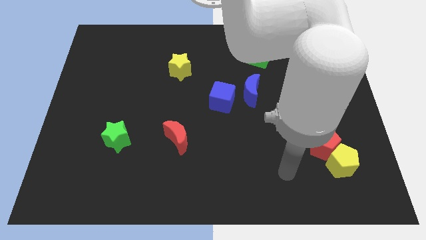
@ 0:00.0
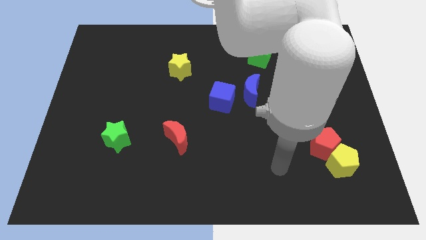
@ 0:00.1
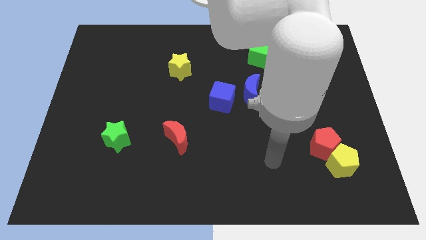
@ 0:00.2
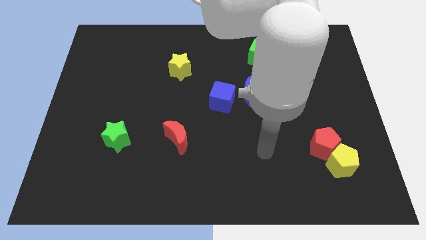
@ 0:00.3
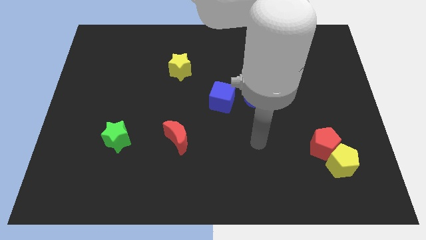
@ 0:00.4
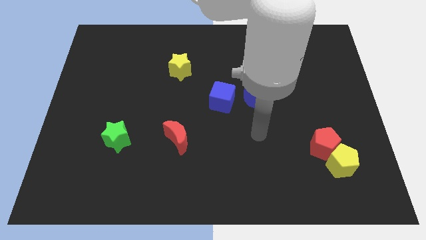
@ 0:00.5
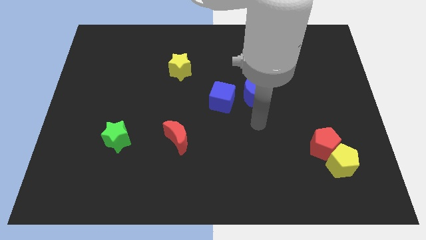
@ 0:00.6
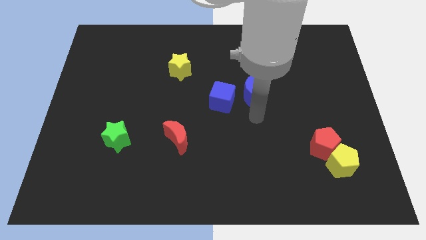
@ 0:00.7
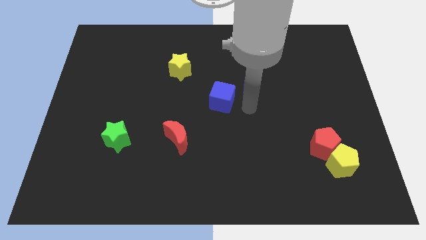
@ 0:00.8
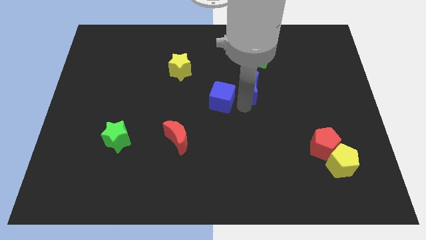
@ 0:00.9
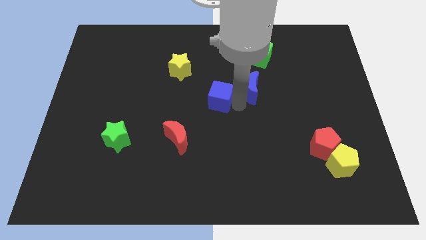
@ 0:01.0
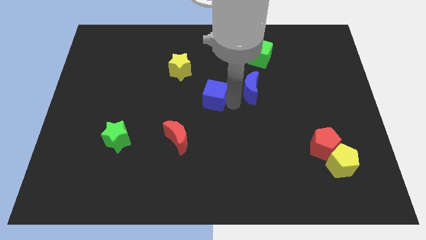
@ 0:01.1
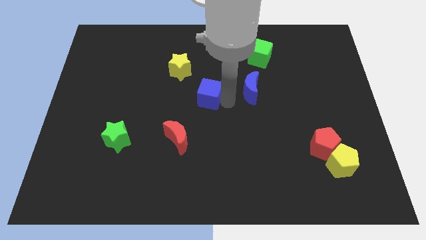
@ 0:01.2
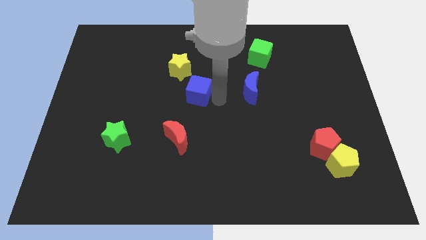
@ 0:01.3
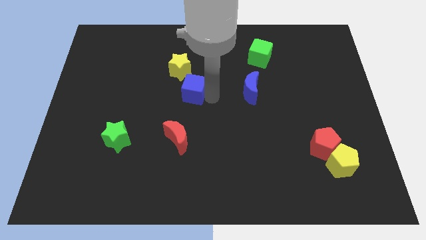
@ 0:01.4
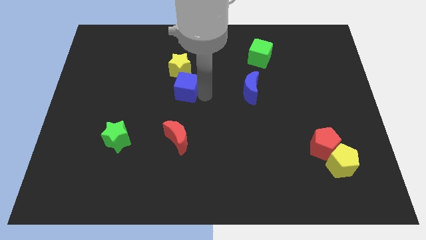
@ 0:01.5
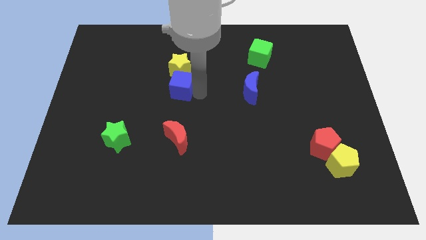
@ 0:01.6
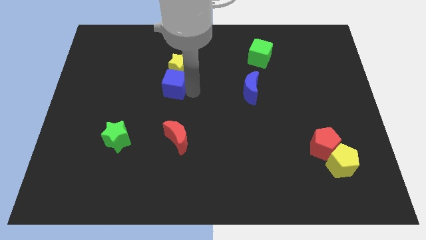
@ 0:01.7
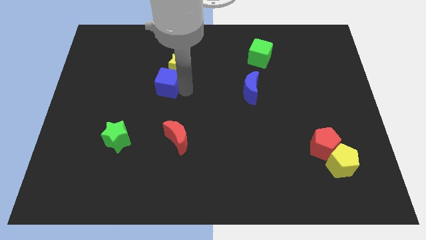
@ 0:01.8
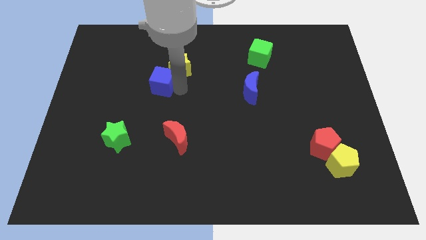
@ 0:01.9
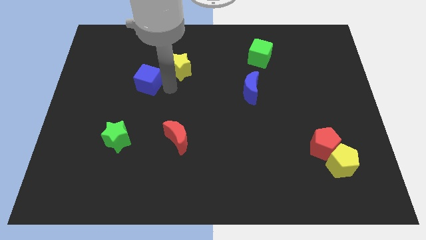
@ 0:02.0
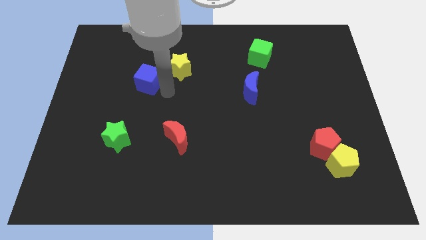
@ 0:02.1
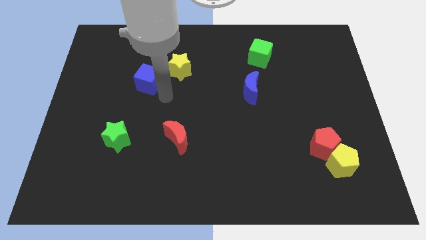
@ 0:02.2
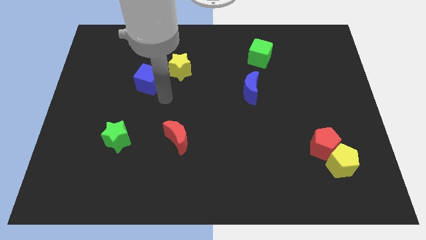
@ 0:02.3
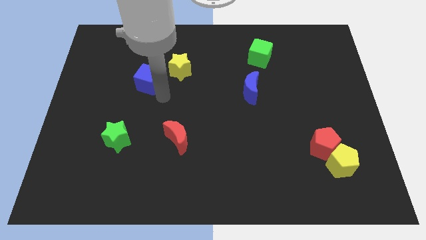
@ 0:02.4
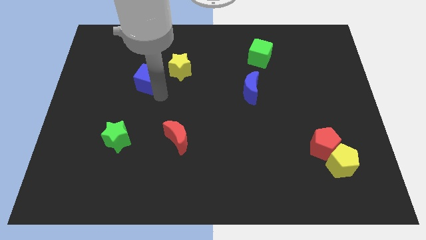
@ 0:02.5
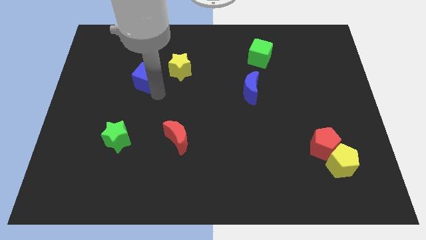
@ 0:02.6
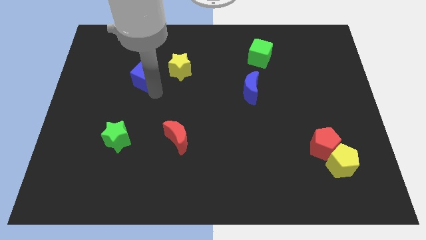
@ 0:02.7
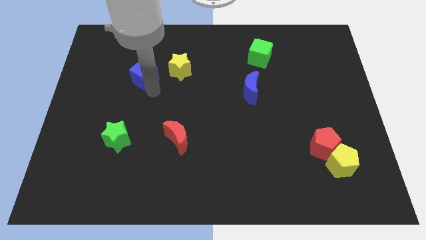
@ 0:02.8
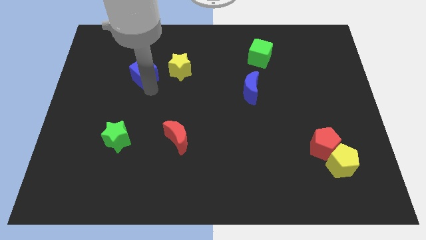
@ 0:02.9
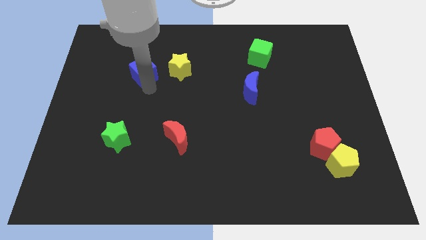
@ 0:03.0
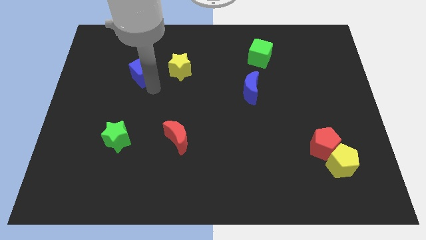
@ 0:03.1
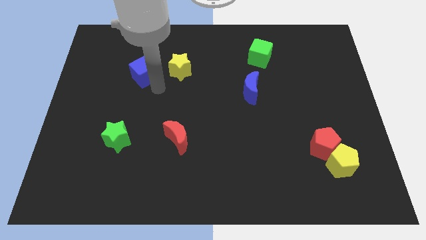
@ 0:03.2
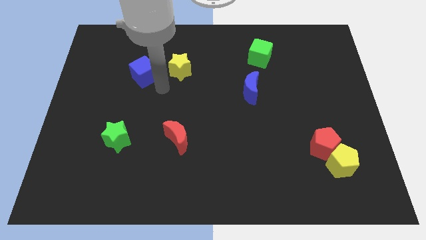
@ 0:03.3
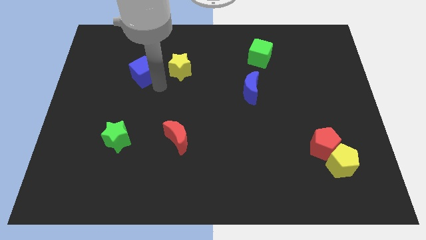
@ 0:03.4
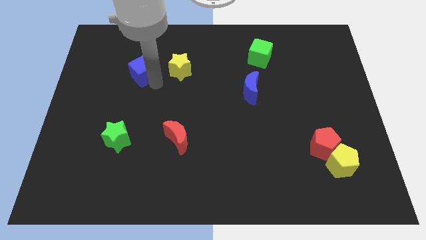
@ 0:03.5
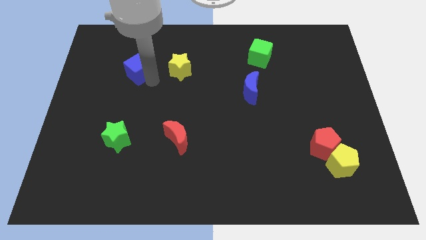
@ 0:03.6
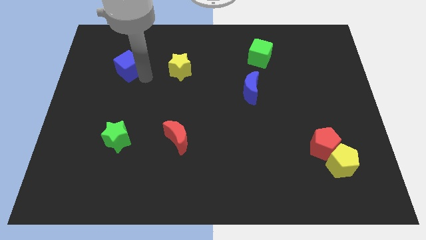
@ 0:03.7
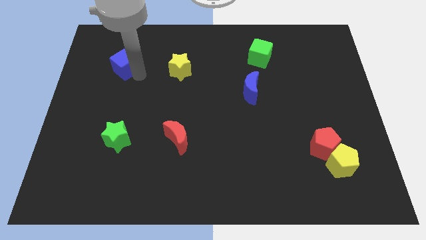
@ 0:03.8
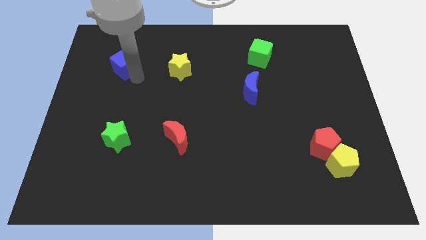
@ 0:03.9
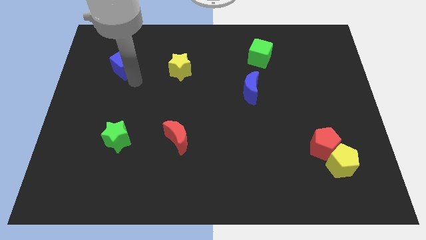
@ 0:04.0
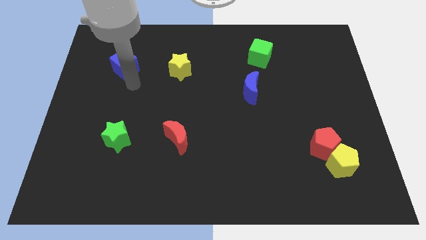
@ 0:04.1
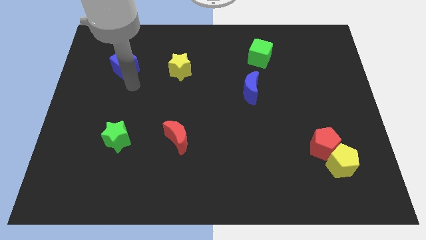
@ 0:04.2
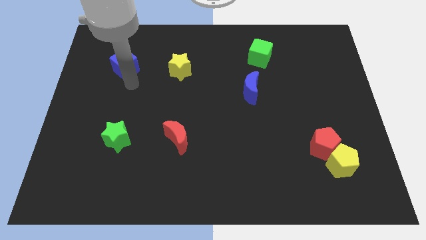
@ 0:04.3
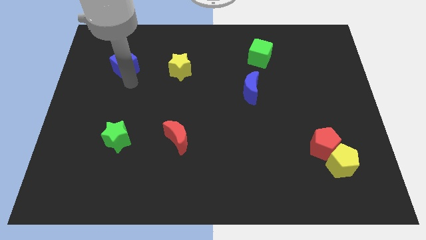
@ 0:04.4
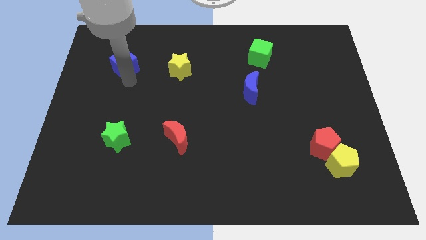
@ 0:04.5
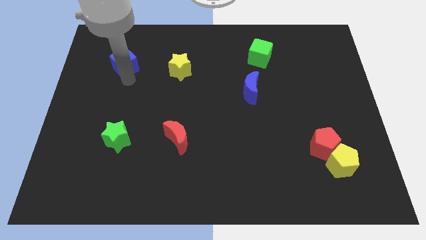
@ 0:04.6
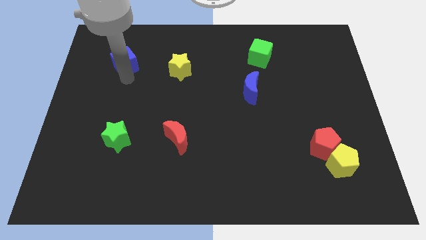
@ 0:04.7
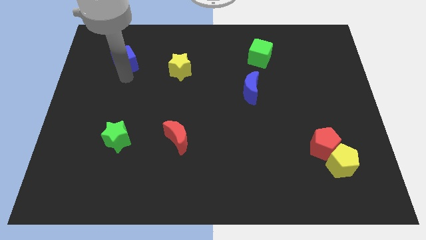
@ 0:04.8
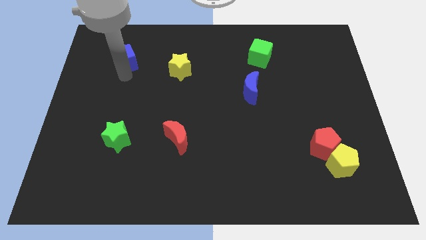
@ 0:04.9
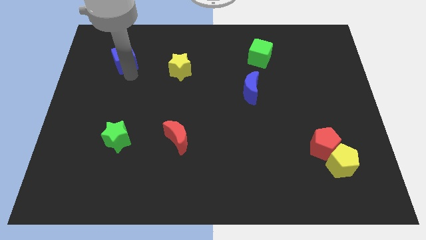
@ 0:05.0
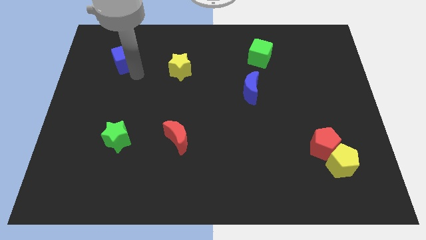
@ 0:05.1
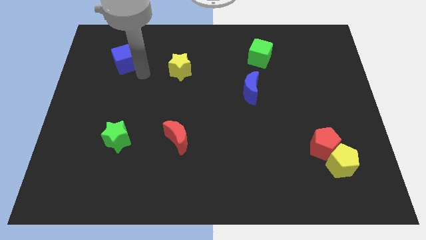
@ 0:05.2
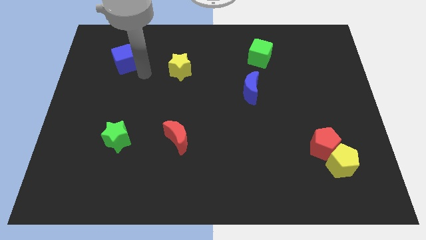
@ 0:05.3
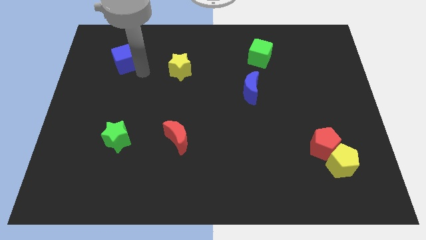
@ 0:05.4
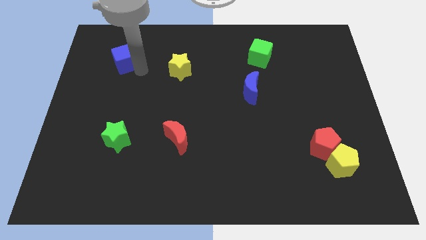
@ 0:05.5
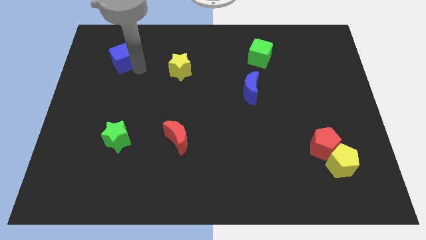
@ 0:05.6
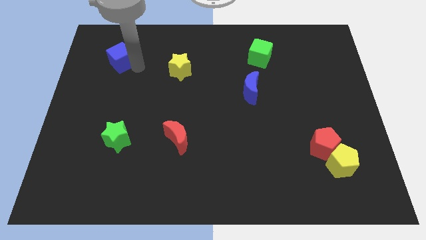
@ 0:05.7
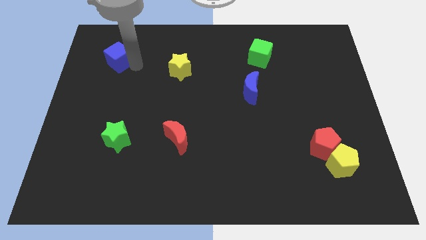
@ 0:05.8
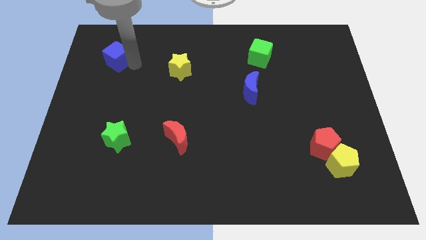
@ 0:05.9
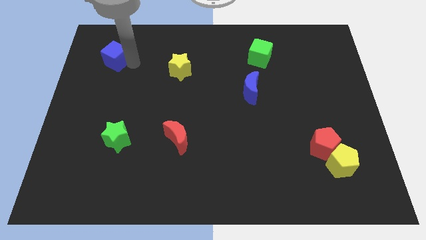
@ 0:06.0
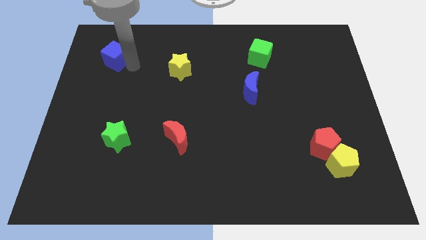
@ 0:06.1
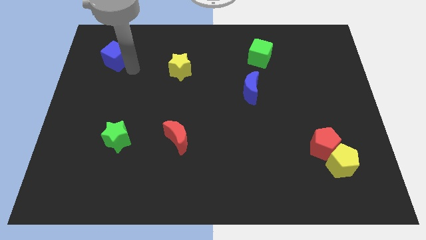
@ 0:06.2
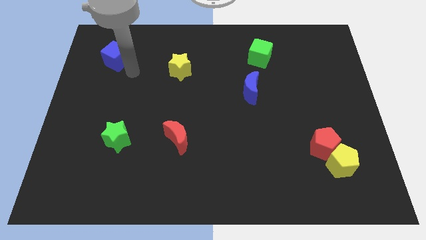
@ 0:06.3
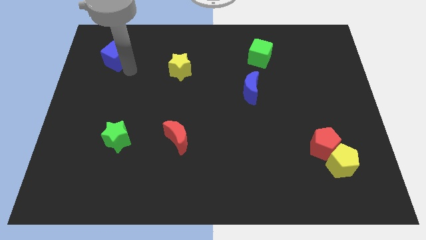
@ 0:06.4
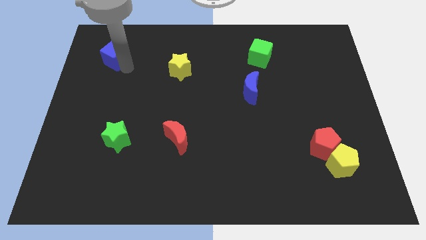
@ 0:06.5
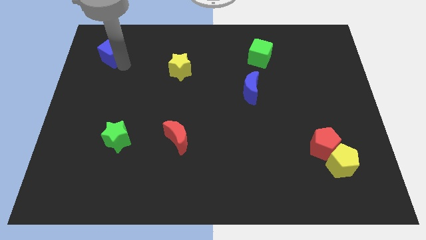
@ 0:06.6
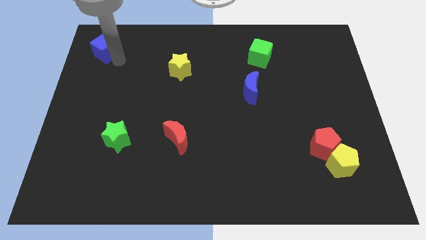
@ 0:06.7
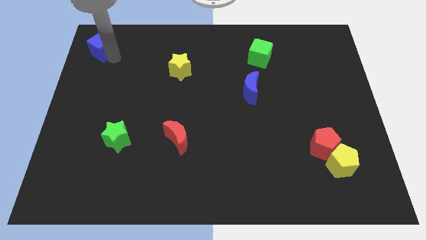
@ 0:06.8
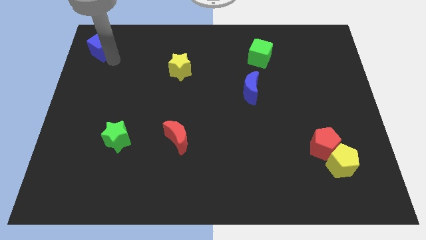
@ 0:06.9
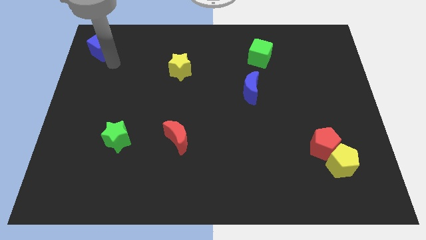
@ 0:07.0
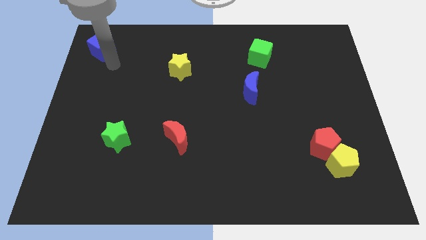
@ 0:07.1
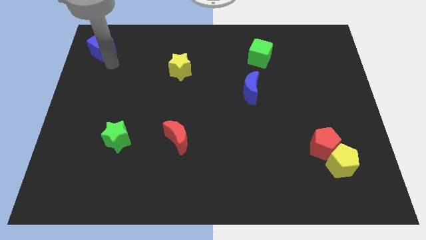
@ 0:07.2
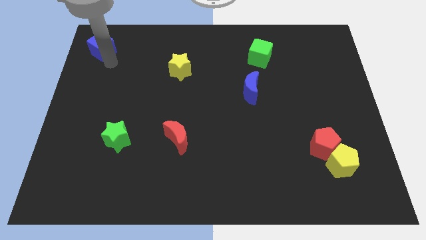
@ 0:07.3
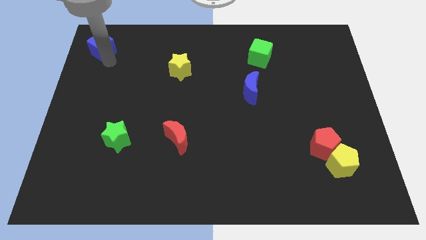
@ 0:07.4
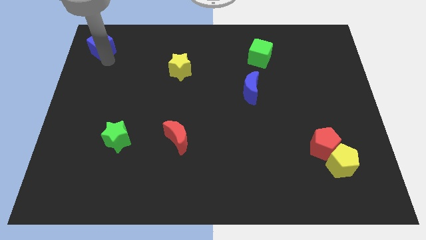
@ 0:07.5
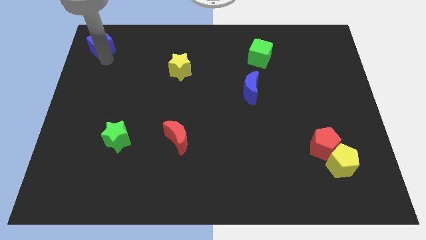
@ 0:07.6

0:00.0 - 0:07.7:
move the blue cube to the top left of the board
